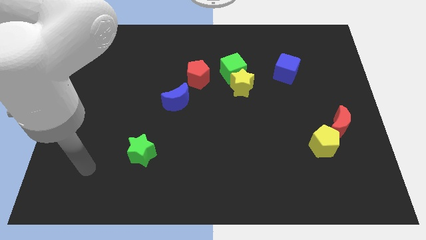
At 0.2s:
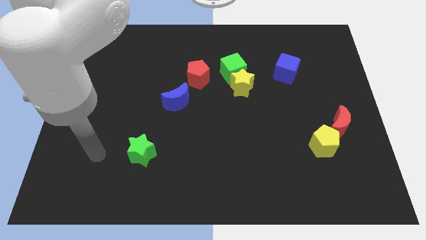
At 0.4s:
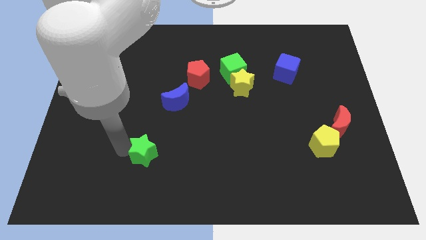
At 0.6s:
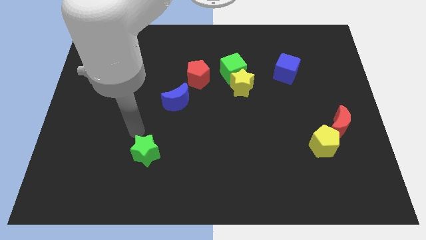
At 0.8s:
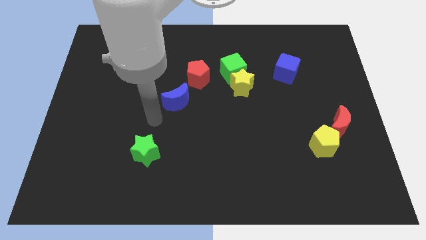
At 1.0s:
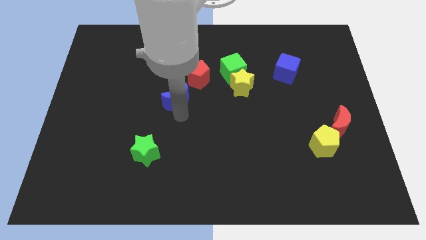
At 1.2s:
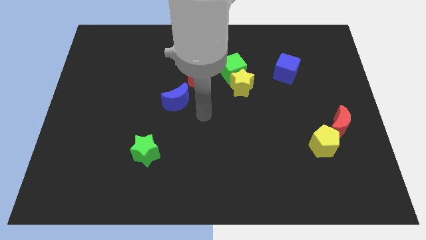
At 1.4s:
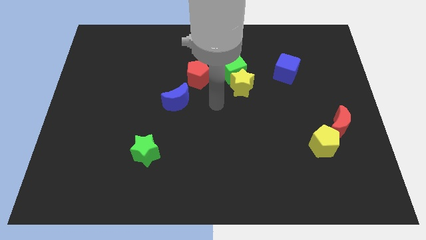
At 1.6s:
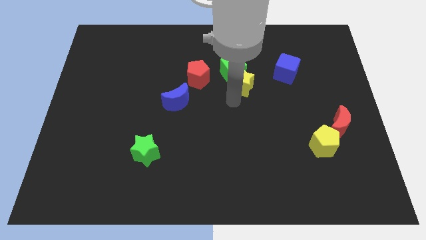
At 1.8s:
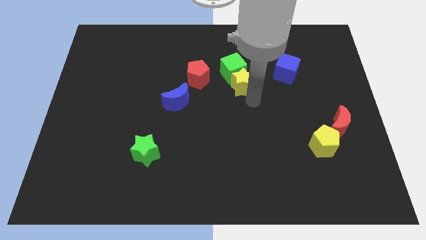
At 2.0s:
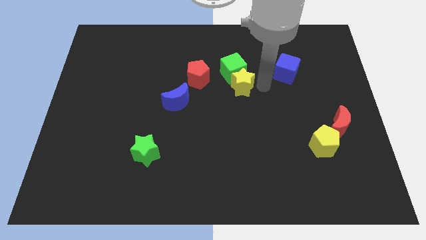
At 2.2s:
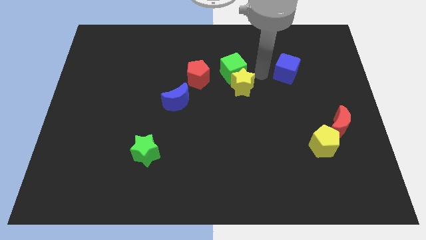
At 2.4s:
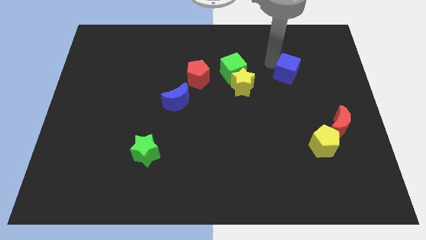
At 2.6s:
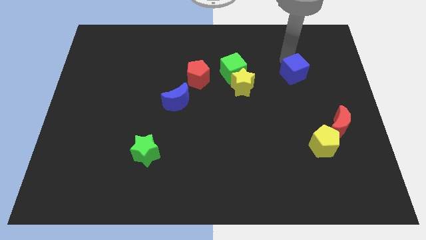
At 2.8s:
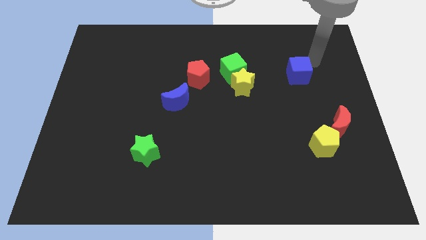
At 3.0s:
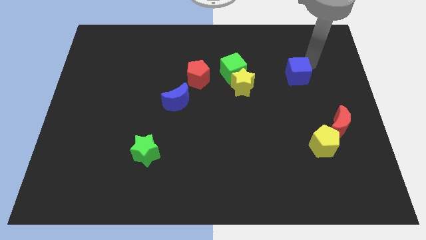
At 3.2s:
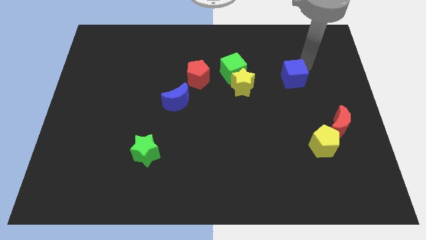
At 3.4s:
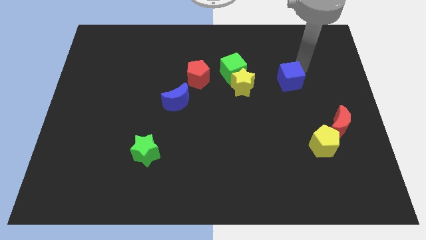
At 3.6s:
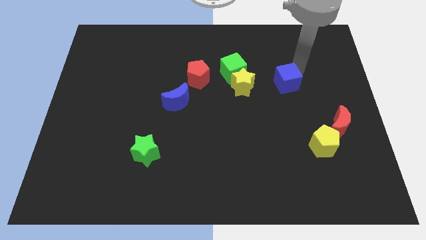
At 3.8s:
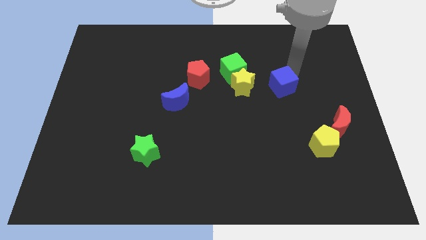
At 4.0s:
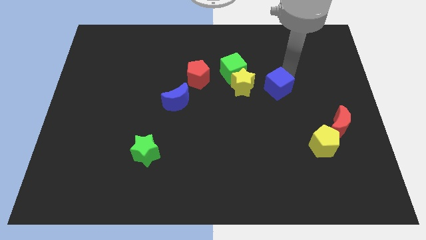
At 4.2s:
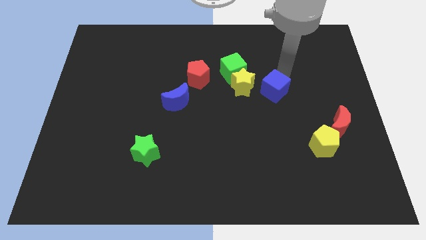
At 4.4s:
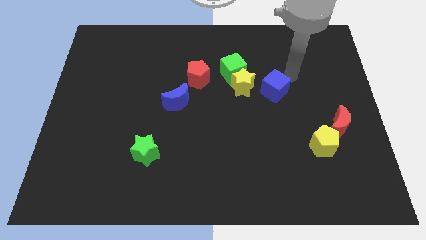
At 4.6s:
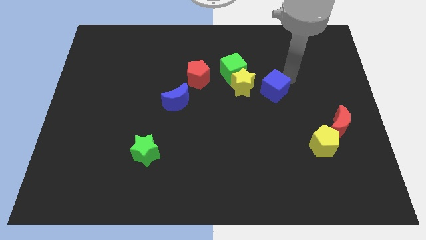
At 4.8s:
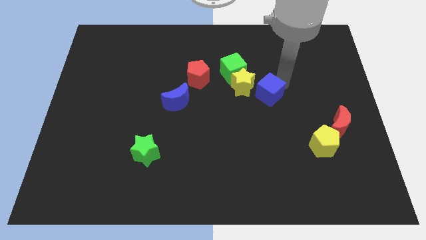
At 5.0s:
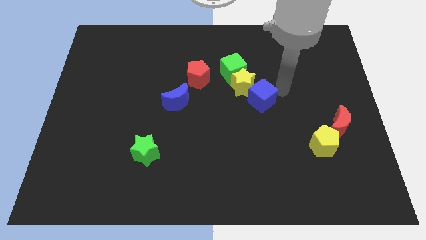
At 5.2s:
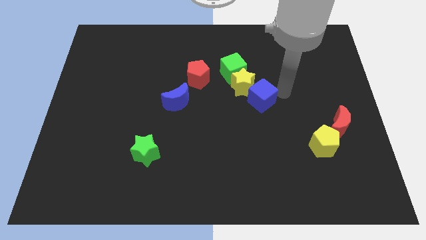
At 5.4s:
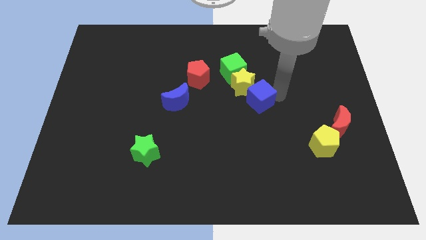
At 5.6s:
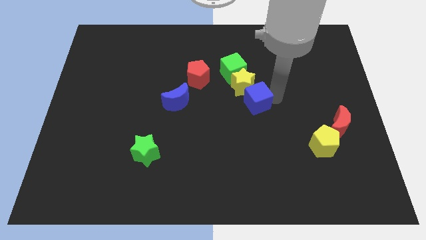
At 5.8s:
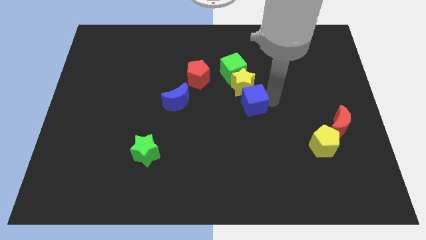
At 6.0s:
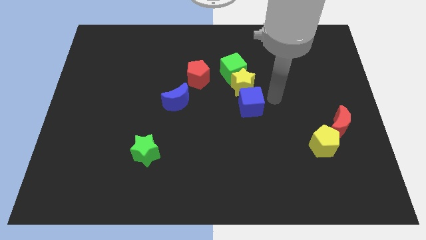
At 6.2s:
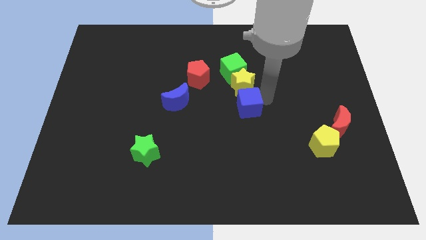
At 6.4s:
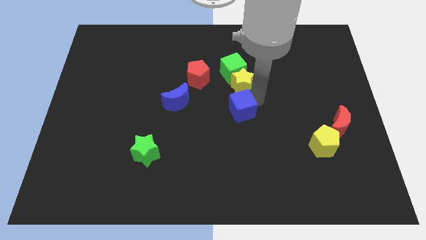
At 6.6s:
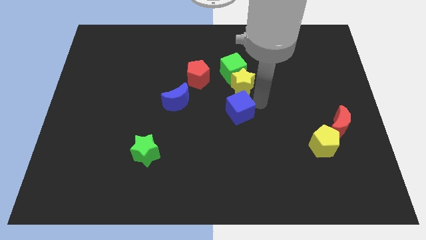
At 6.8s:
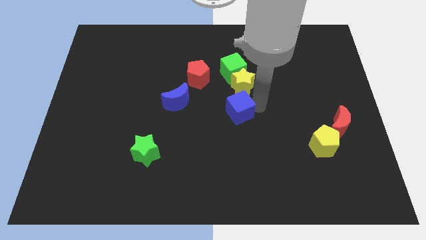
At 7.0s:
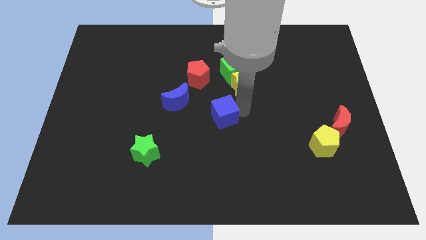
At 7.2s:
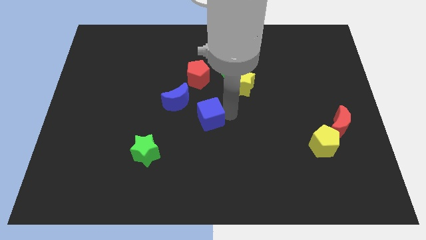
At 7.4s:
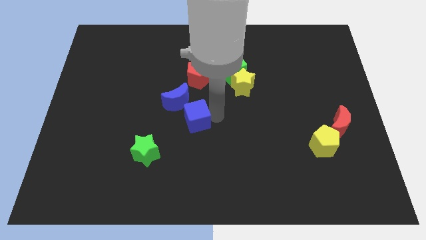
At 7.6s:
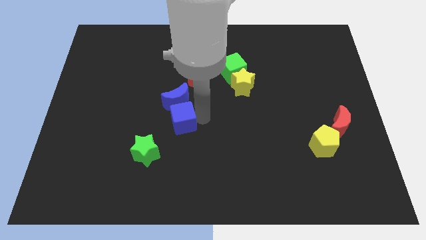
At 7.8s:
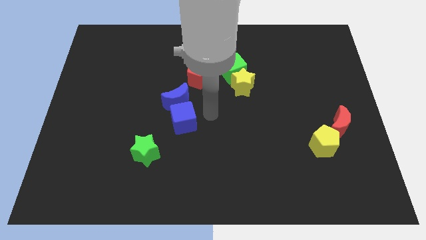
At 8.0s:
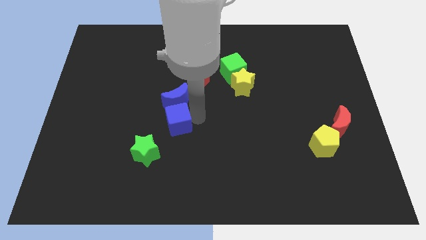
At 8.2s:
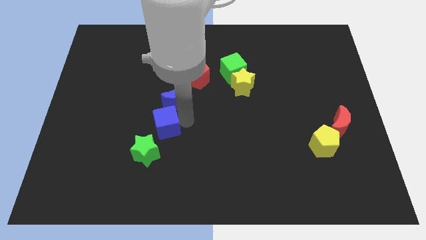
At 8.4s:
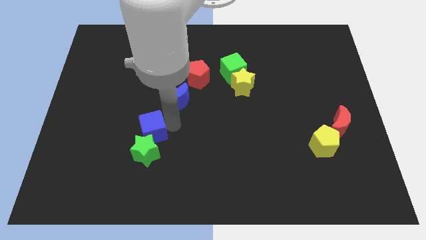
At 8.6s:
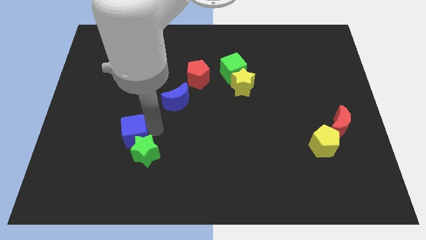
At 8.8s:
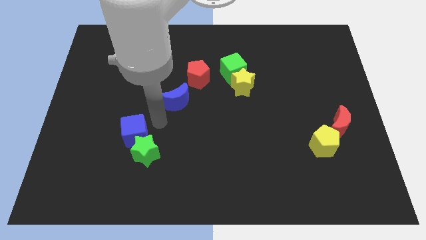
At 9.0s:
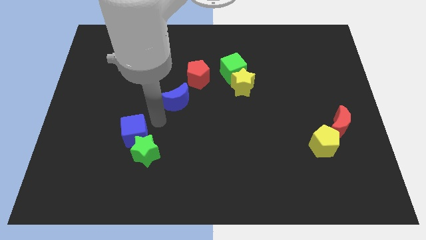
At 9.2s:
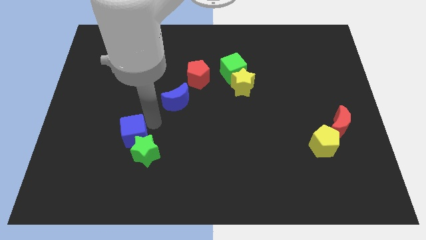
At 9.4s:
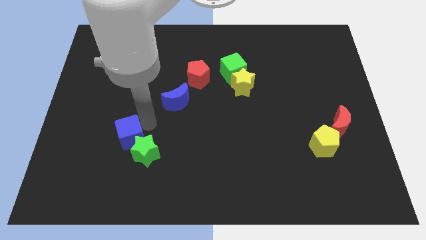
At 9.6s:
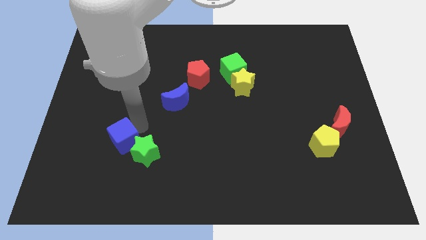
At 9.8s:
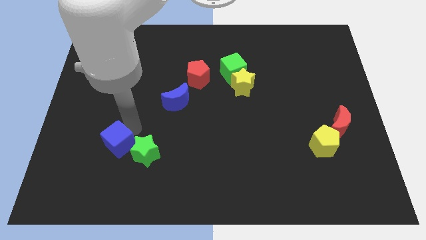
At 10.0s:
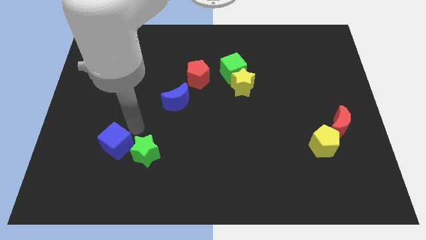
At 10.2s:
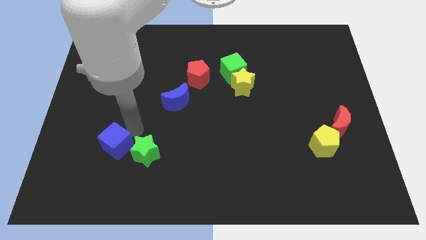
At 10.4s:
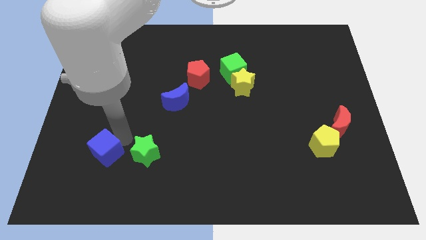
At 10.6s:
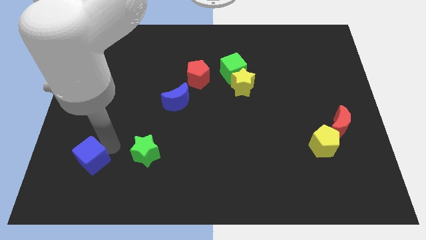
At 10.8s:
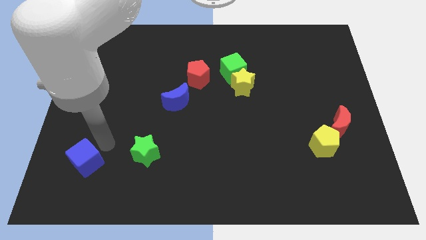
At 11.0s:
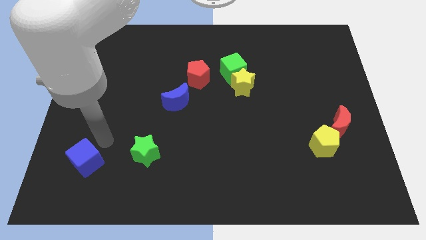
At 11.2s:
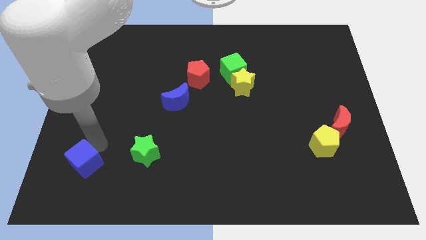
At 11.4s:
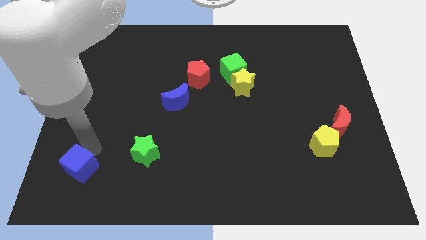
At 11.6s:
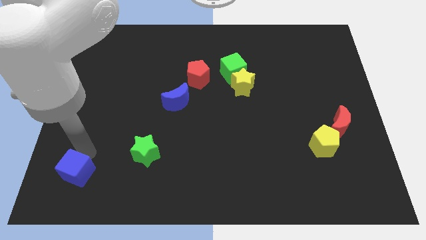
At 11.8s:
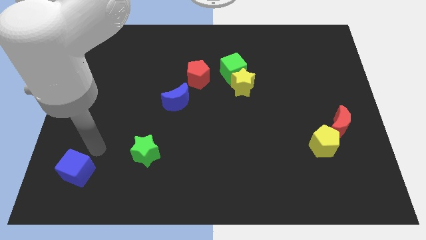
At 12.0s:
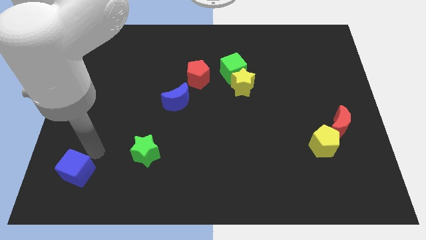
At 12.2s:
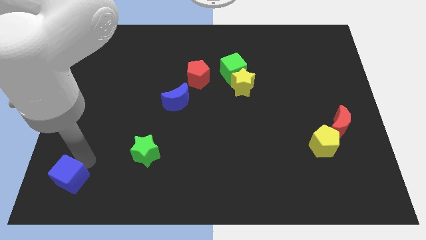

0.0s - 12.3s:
put the blue cube to the bottom left of the board
